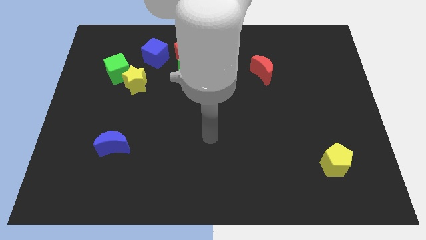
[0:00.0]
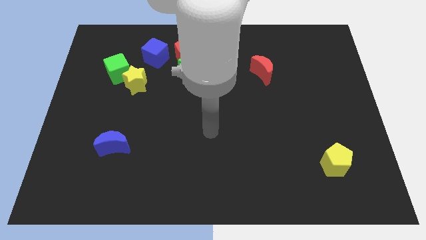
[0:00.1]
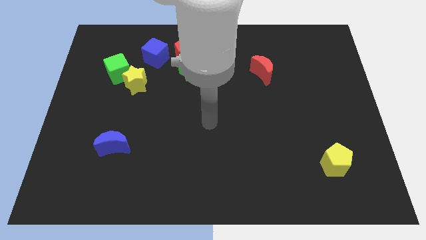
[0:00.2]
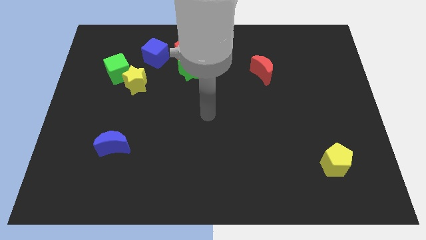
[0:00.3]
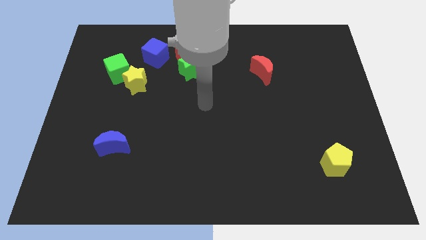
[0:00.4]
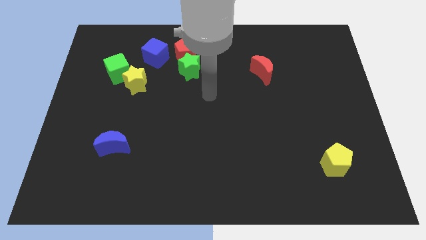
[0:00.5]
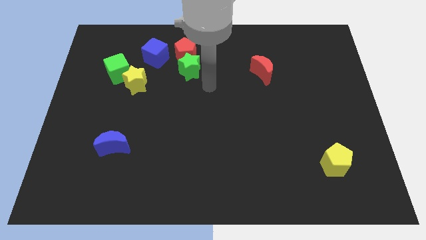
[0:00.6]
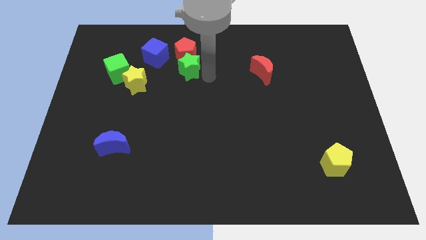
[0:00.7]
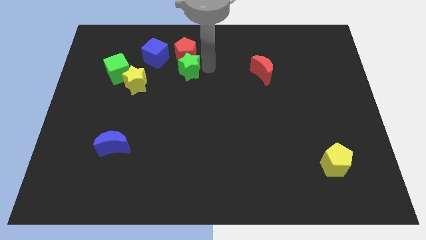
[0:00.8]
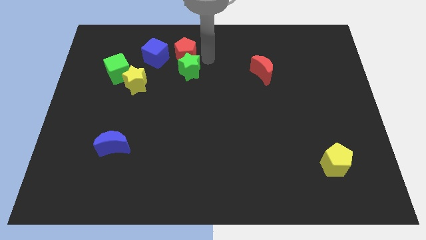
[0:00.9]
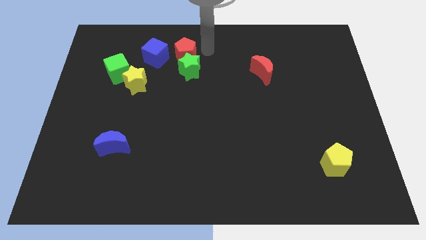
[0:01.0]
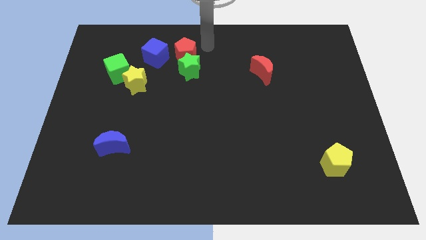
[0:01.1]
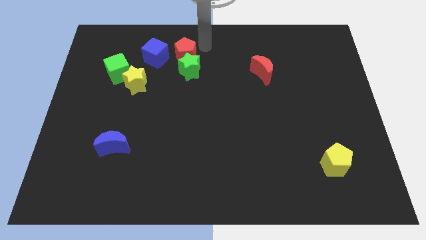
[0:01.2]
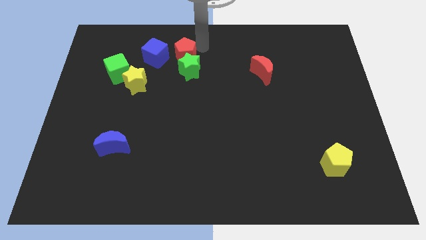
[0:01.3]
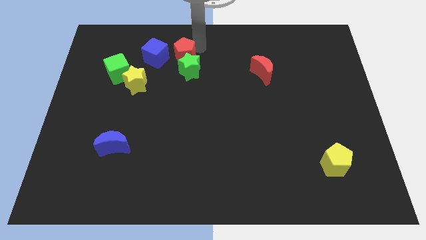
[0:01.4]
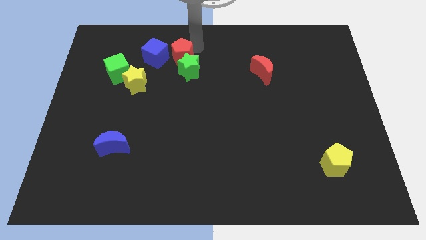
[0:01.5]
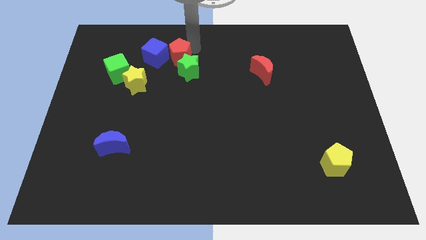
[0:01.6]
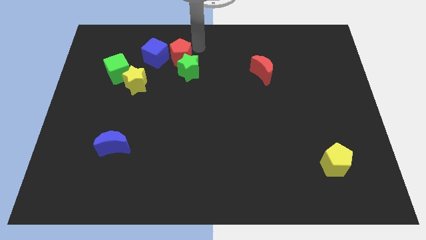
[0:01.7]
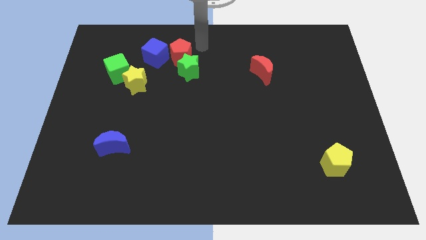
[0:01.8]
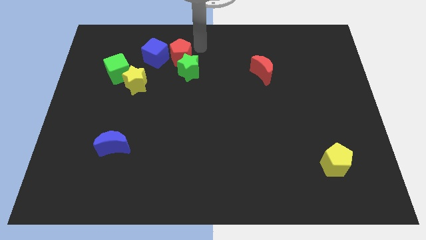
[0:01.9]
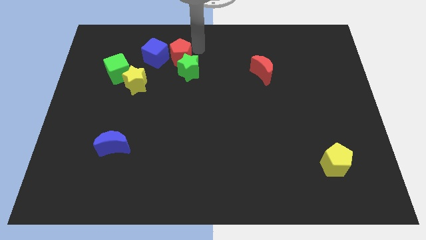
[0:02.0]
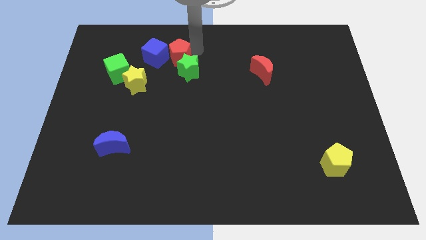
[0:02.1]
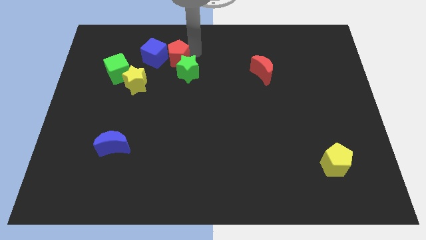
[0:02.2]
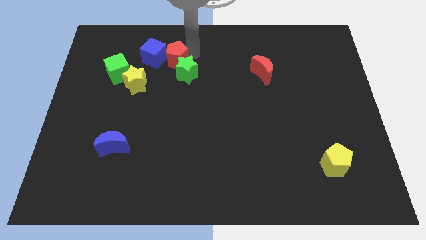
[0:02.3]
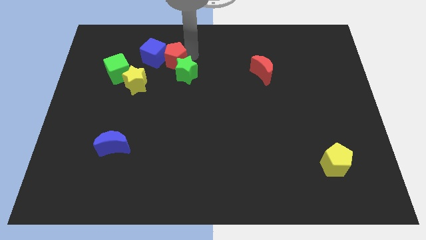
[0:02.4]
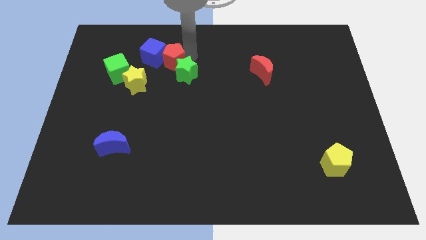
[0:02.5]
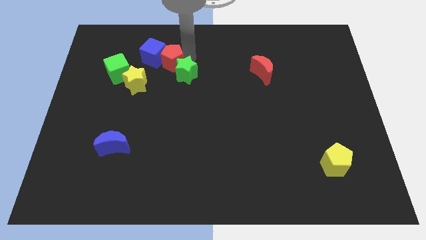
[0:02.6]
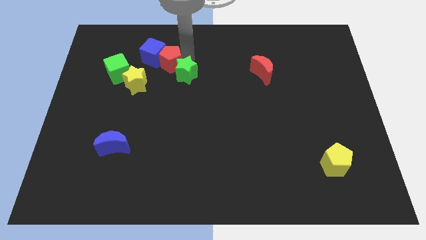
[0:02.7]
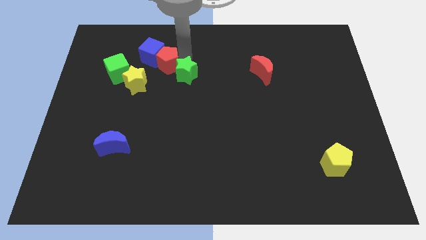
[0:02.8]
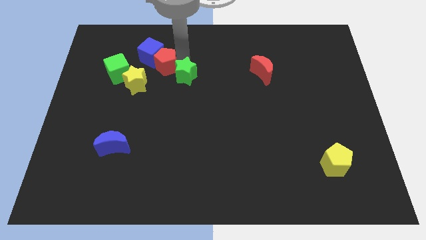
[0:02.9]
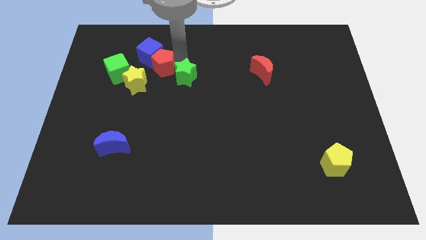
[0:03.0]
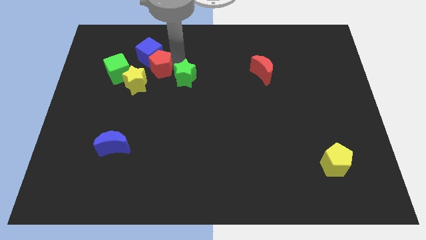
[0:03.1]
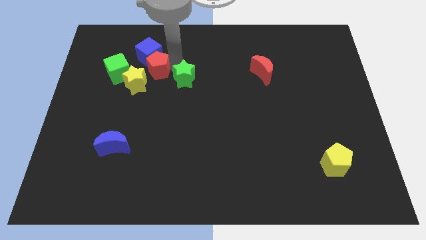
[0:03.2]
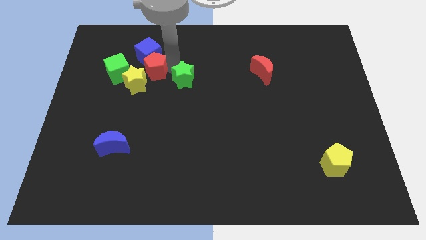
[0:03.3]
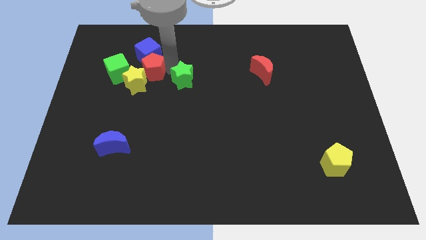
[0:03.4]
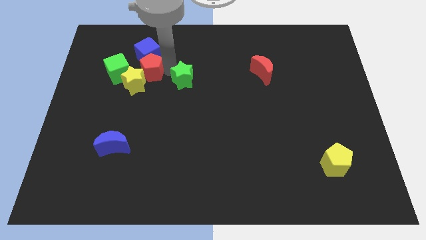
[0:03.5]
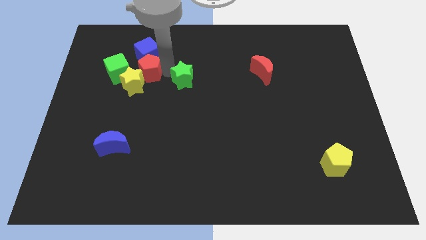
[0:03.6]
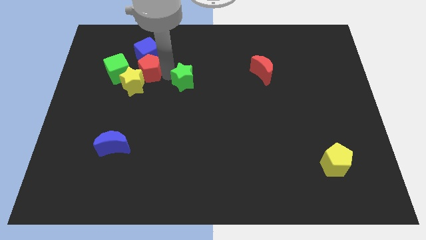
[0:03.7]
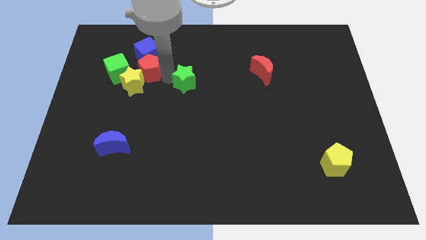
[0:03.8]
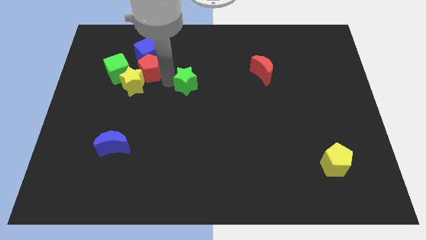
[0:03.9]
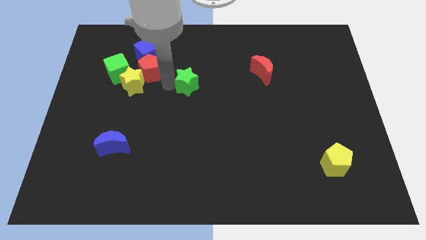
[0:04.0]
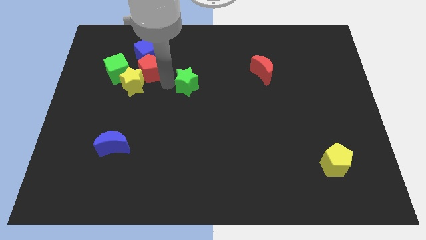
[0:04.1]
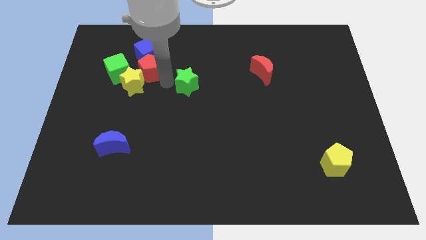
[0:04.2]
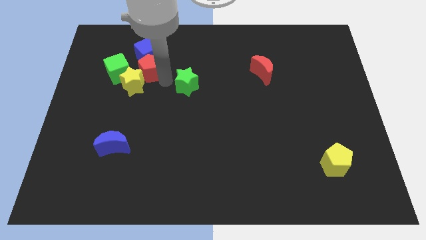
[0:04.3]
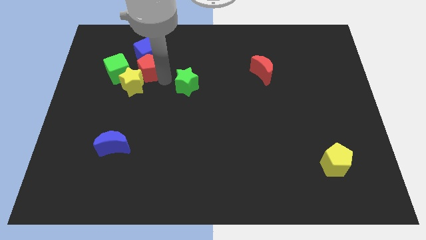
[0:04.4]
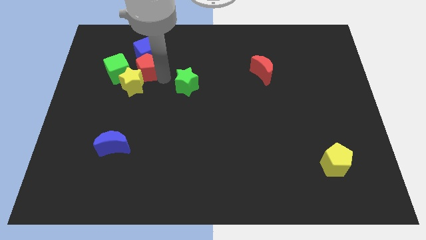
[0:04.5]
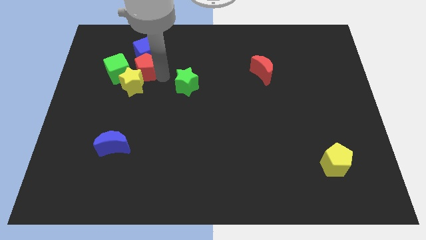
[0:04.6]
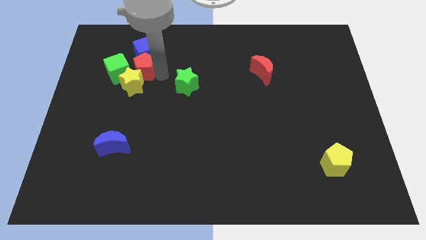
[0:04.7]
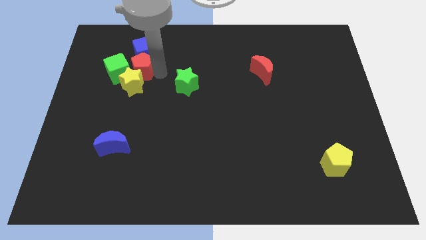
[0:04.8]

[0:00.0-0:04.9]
slide the red pentagon next to the green cube

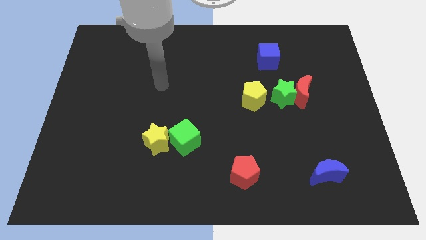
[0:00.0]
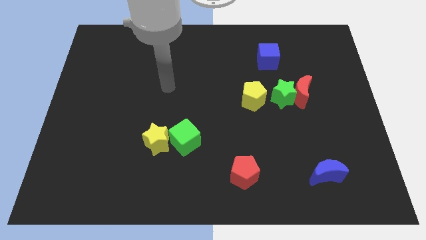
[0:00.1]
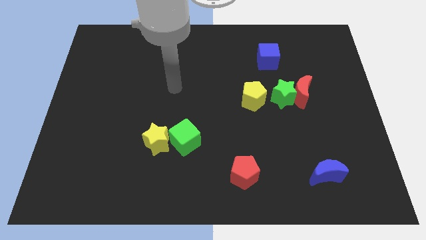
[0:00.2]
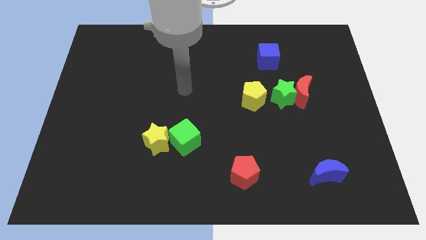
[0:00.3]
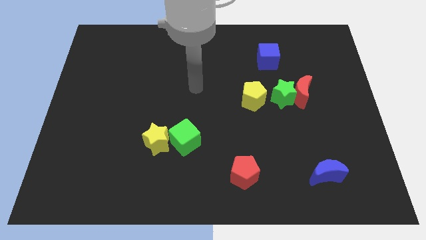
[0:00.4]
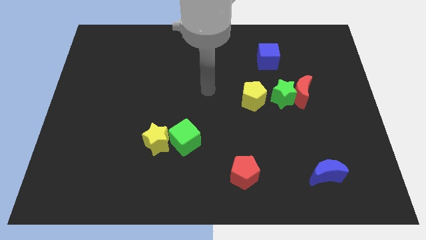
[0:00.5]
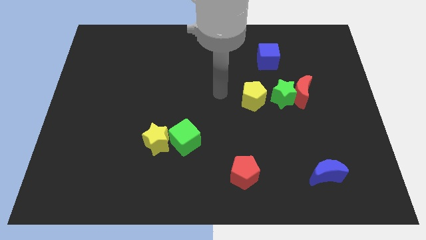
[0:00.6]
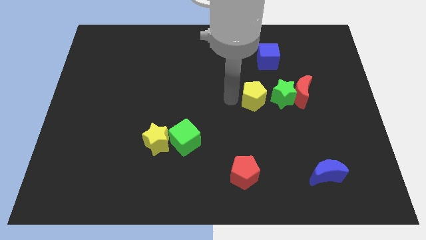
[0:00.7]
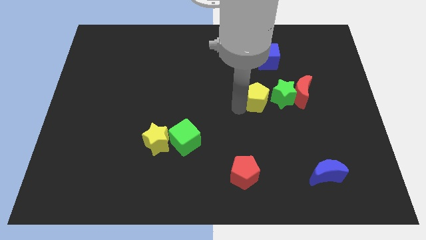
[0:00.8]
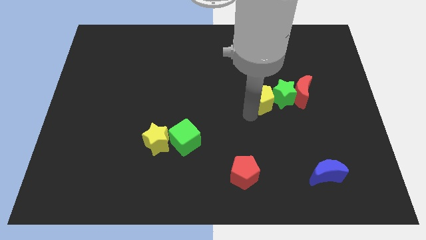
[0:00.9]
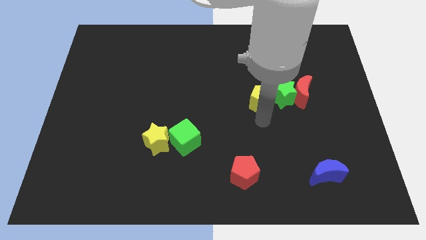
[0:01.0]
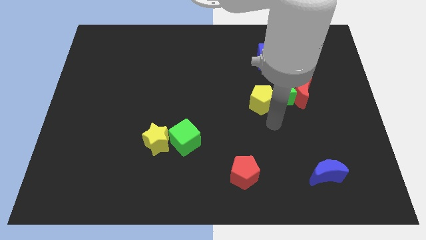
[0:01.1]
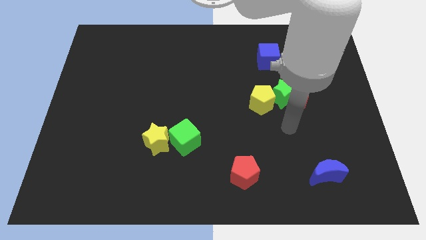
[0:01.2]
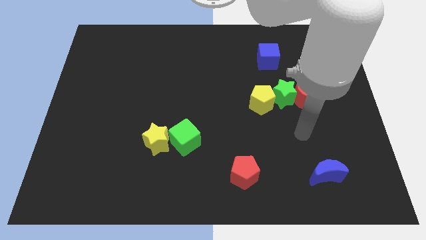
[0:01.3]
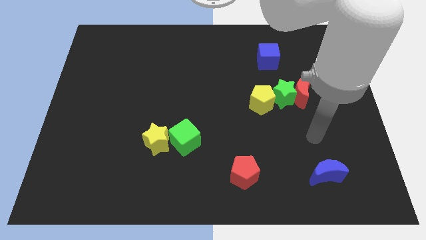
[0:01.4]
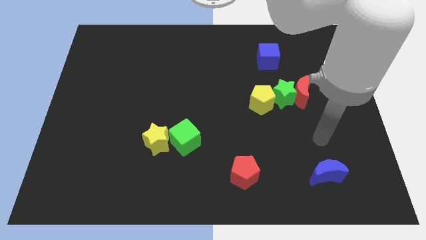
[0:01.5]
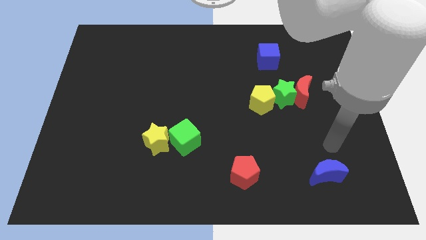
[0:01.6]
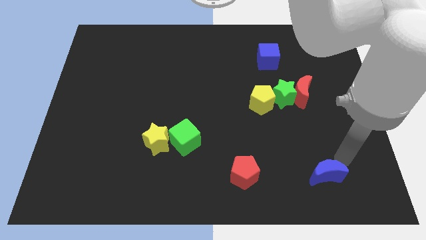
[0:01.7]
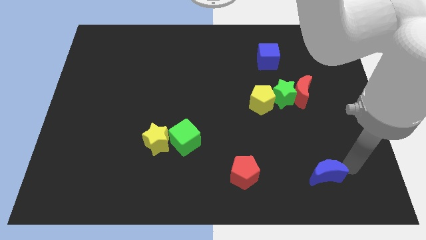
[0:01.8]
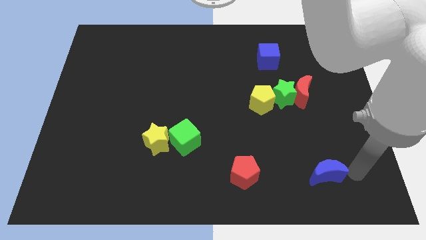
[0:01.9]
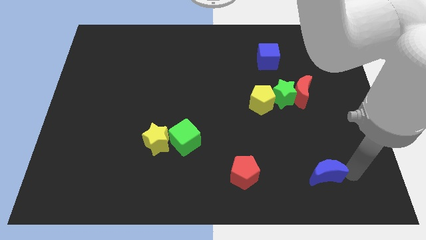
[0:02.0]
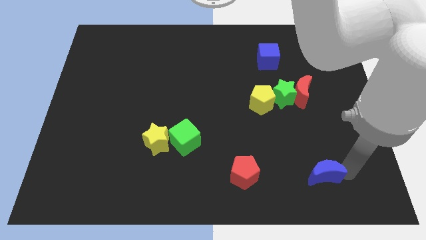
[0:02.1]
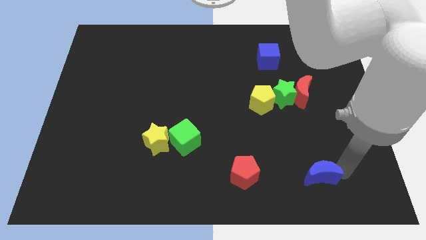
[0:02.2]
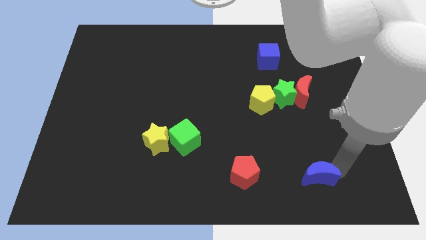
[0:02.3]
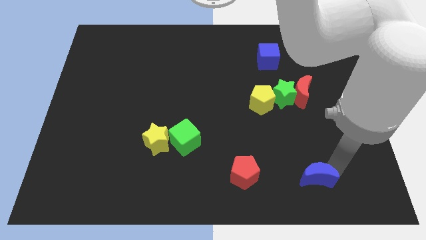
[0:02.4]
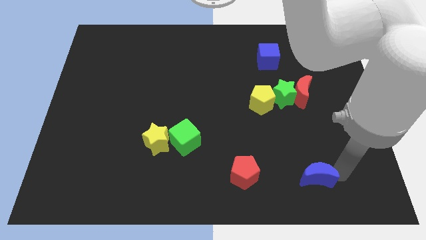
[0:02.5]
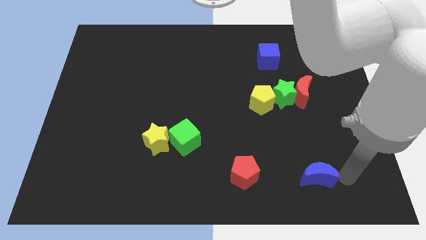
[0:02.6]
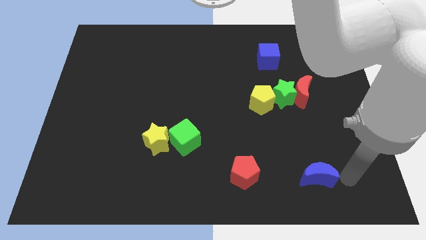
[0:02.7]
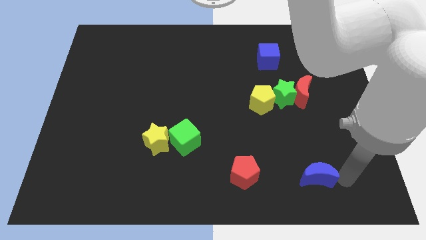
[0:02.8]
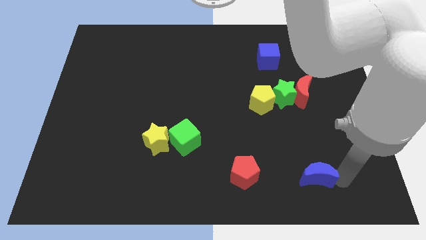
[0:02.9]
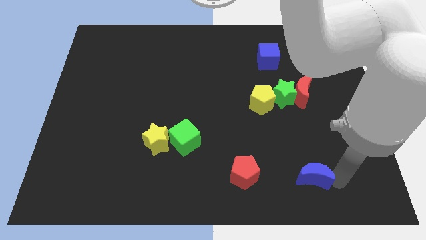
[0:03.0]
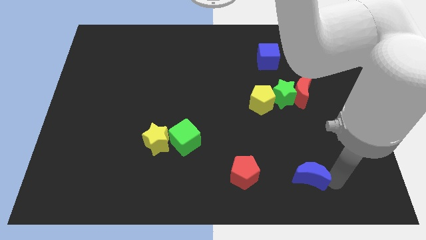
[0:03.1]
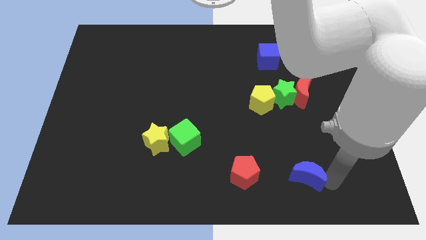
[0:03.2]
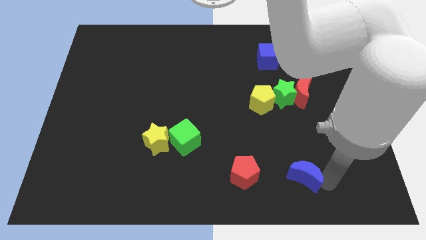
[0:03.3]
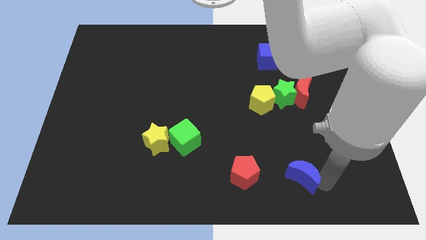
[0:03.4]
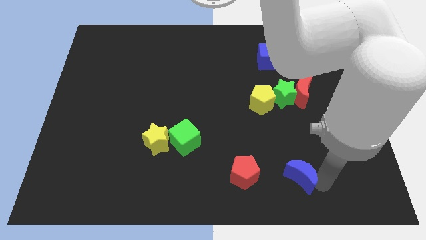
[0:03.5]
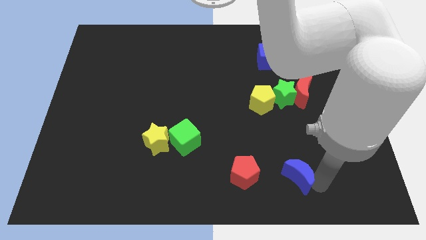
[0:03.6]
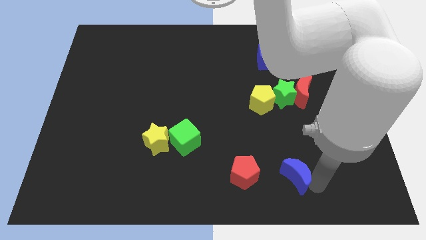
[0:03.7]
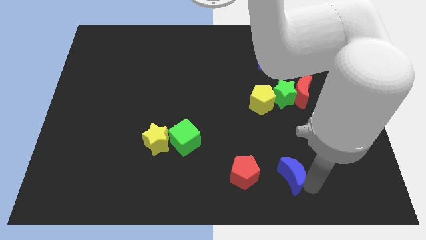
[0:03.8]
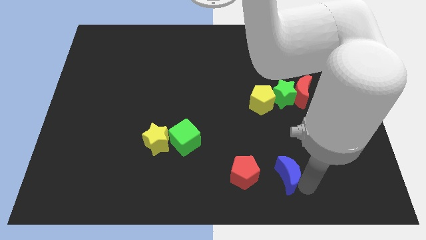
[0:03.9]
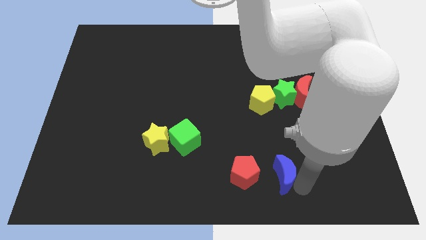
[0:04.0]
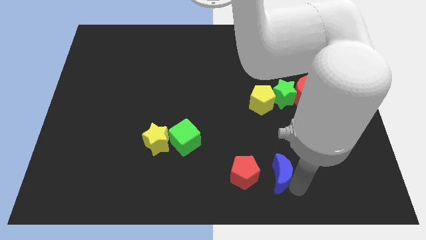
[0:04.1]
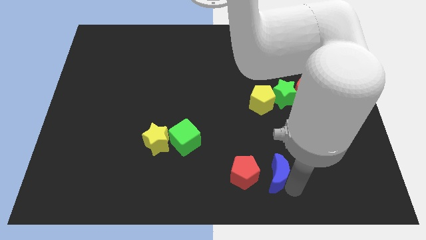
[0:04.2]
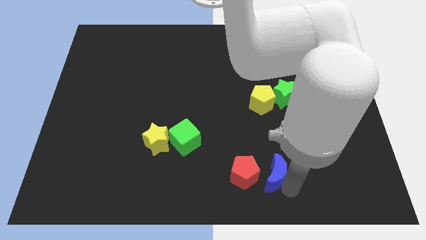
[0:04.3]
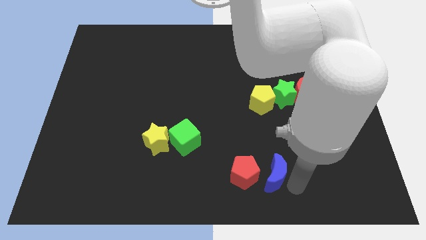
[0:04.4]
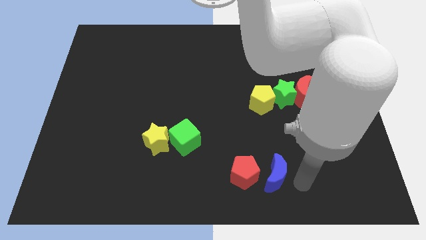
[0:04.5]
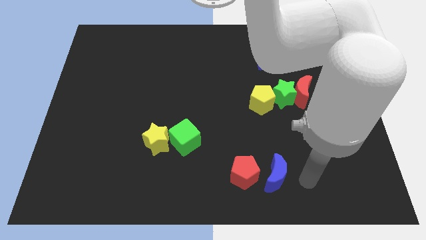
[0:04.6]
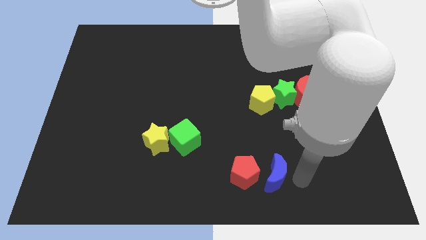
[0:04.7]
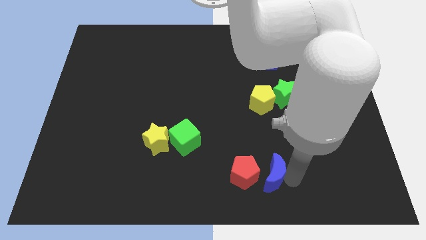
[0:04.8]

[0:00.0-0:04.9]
slide the blue moon next to the red pentagon
